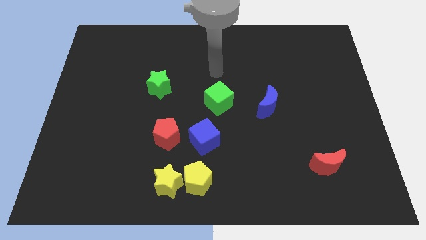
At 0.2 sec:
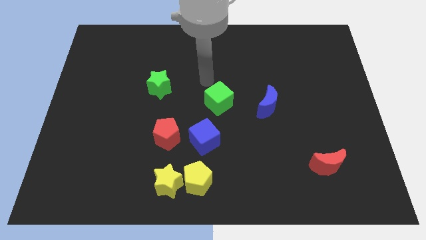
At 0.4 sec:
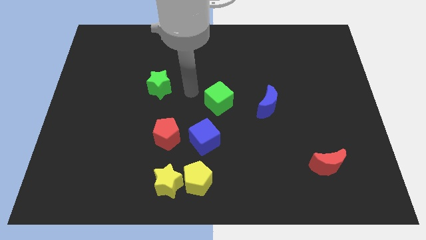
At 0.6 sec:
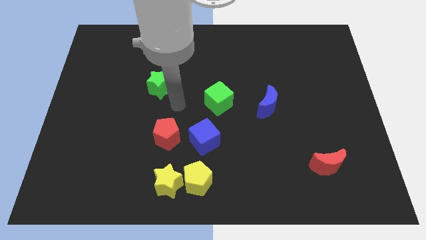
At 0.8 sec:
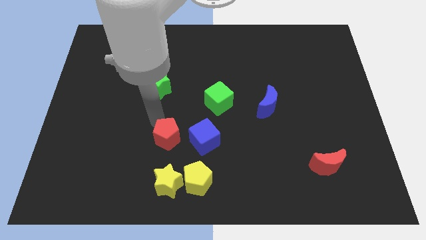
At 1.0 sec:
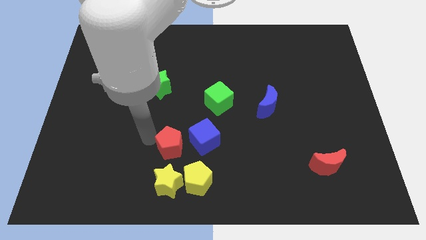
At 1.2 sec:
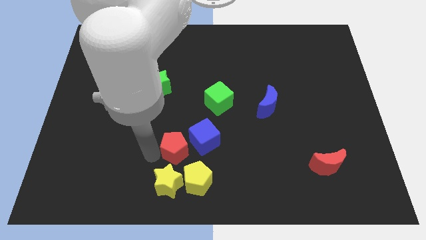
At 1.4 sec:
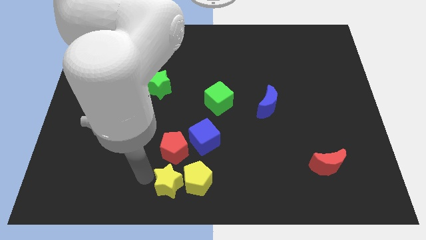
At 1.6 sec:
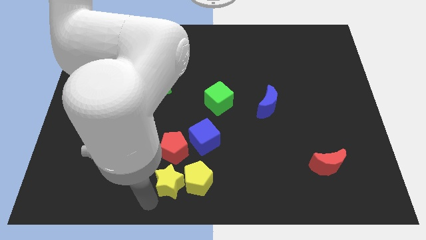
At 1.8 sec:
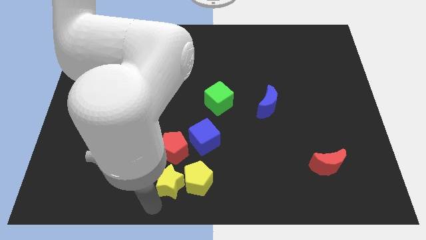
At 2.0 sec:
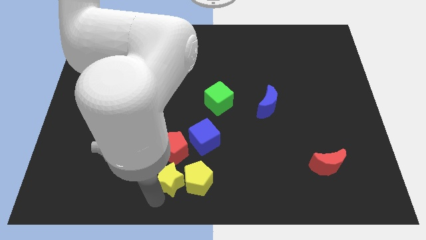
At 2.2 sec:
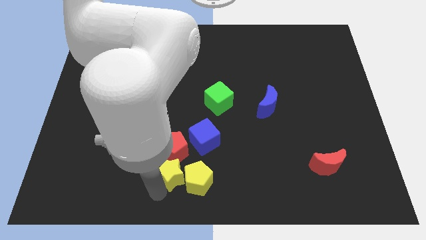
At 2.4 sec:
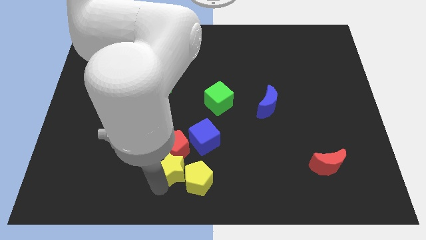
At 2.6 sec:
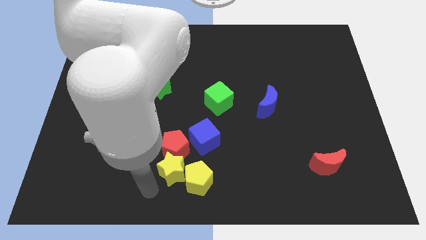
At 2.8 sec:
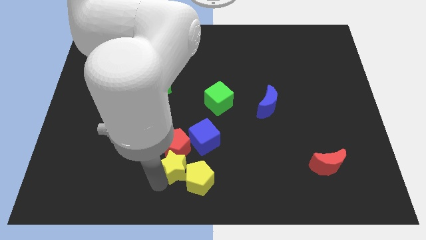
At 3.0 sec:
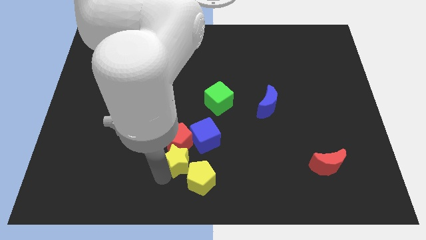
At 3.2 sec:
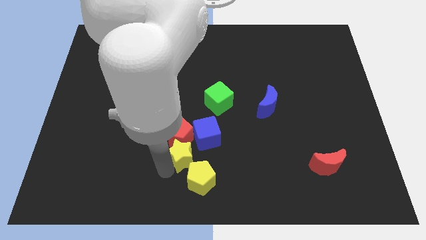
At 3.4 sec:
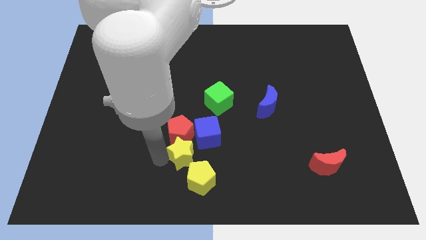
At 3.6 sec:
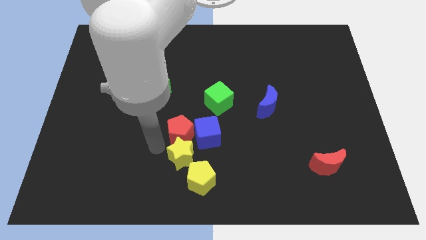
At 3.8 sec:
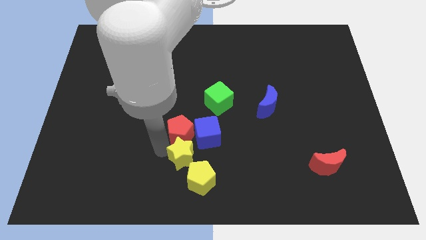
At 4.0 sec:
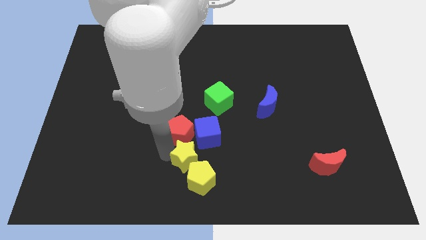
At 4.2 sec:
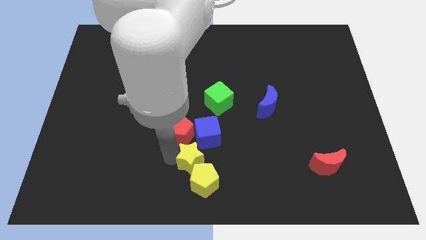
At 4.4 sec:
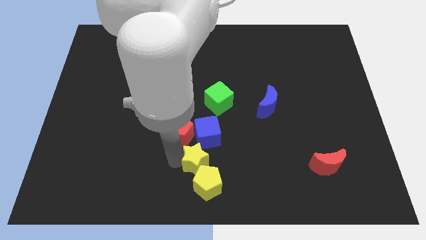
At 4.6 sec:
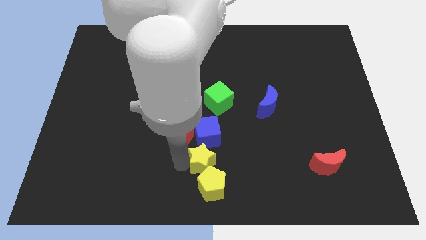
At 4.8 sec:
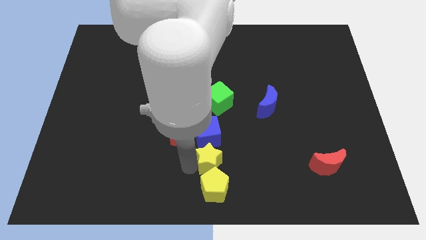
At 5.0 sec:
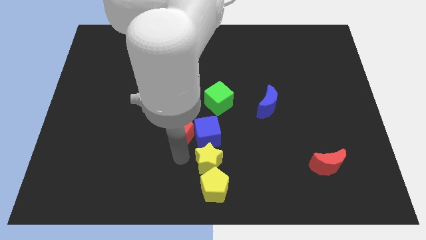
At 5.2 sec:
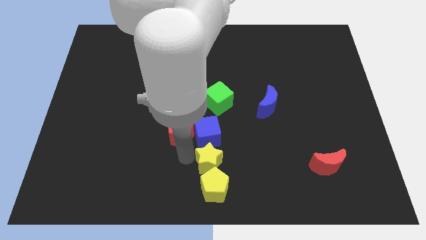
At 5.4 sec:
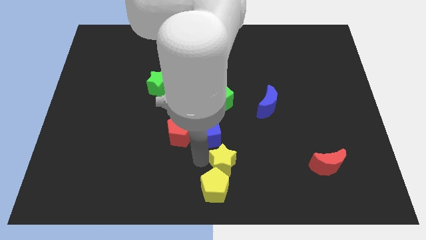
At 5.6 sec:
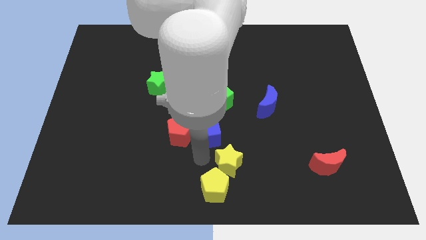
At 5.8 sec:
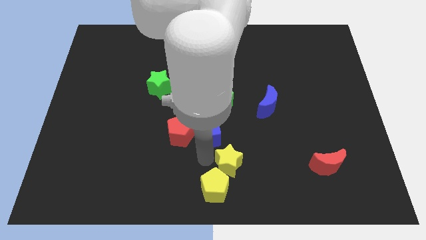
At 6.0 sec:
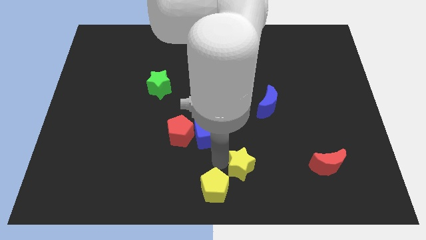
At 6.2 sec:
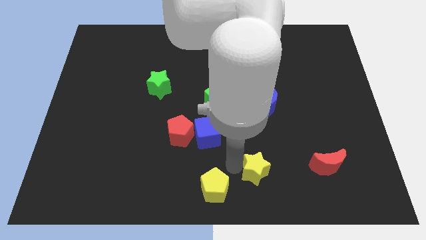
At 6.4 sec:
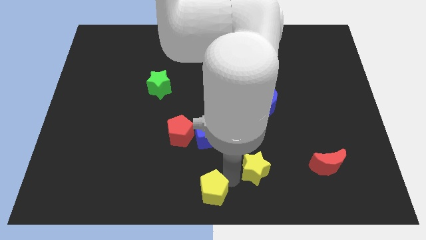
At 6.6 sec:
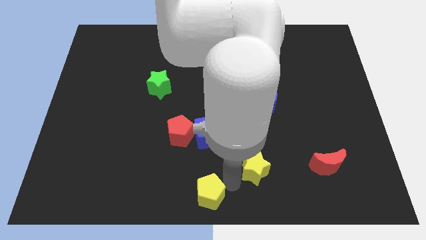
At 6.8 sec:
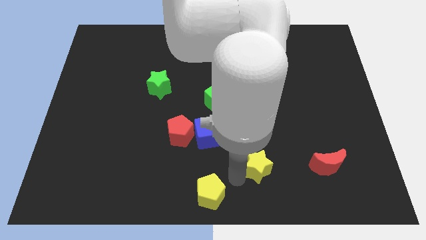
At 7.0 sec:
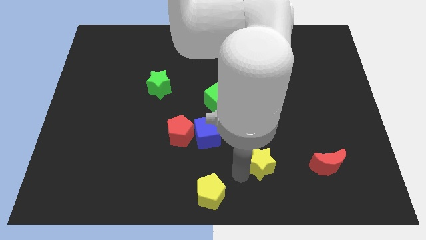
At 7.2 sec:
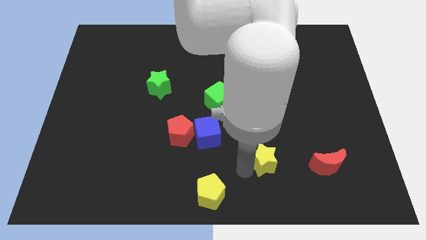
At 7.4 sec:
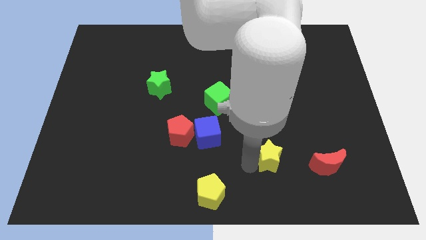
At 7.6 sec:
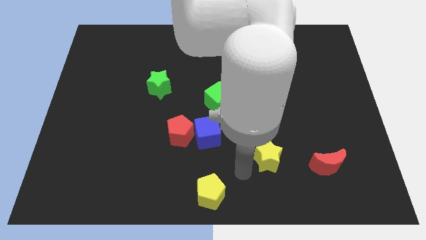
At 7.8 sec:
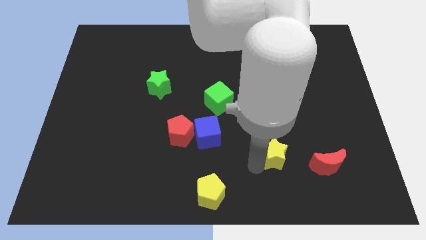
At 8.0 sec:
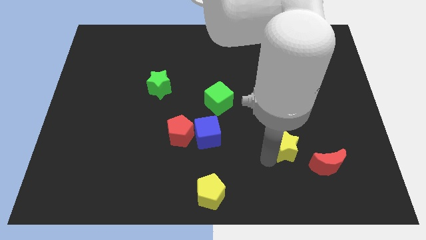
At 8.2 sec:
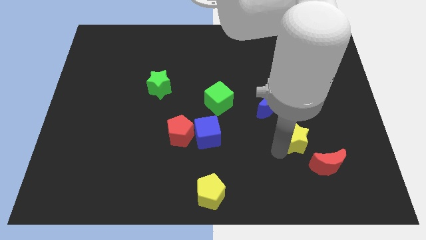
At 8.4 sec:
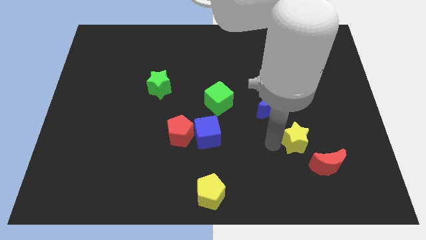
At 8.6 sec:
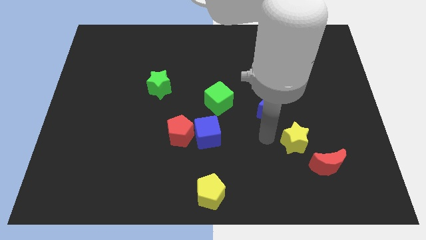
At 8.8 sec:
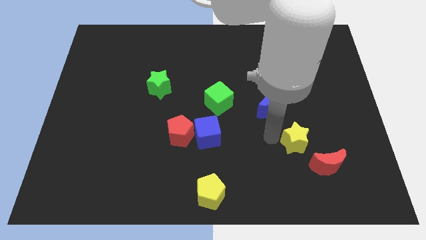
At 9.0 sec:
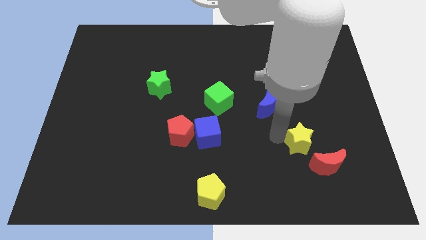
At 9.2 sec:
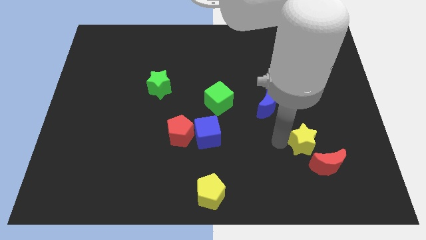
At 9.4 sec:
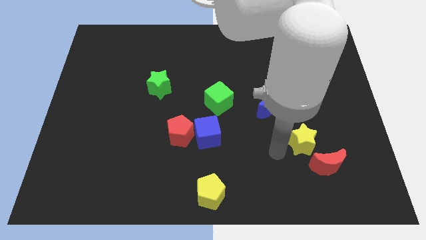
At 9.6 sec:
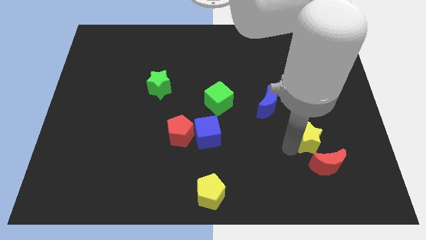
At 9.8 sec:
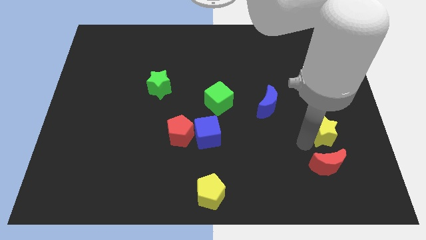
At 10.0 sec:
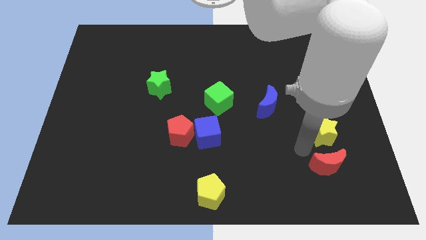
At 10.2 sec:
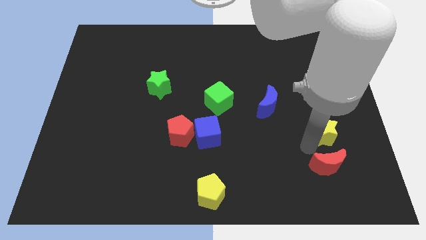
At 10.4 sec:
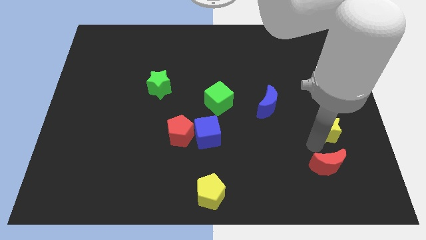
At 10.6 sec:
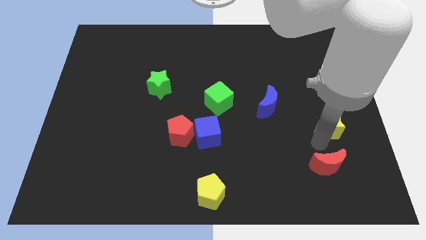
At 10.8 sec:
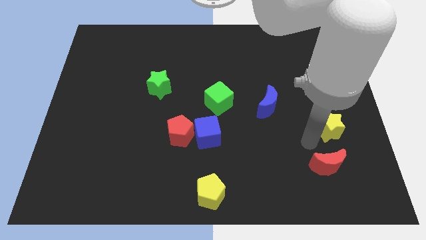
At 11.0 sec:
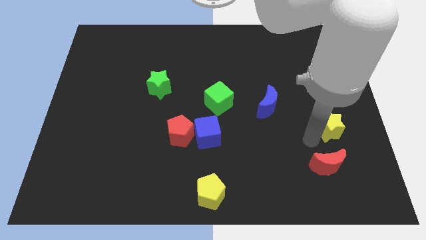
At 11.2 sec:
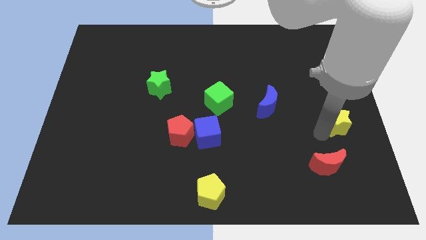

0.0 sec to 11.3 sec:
put the yellow star to the center right

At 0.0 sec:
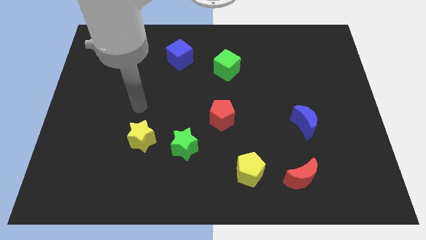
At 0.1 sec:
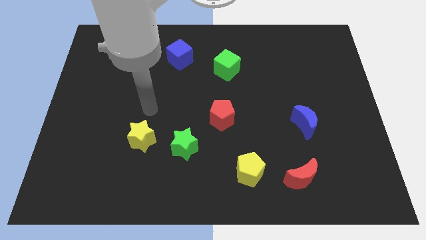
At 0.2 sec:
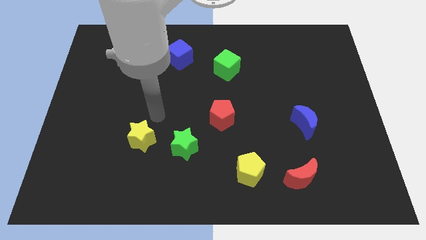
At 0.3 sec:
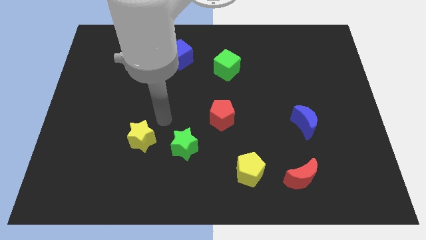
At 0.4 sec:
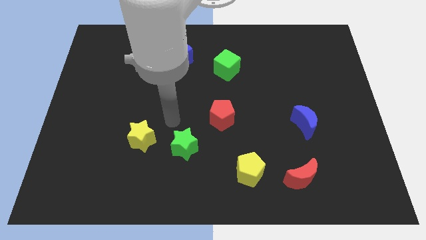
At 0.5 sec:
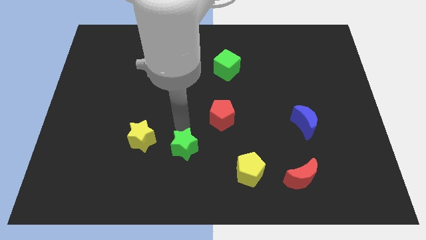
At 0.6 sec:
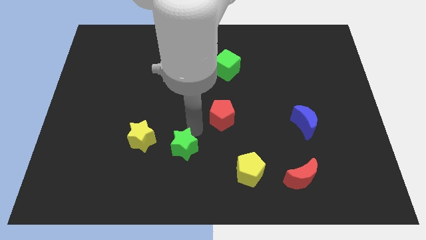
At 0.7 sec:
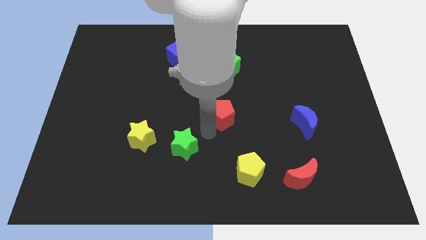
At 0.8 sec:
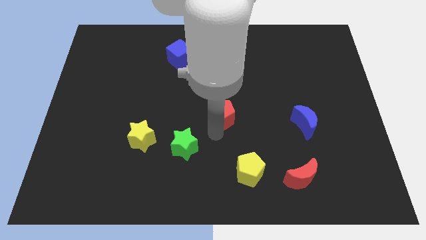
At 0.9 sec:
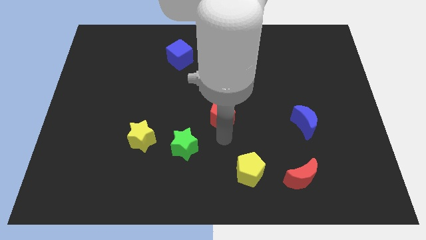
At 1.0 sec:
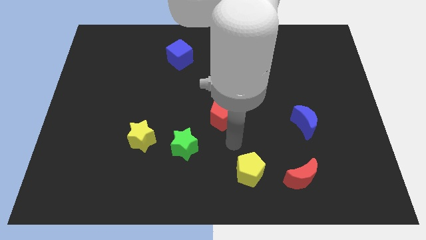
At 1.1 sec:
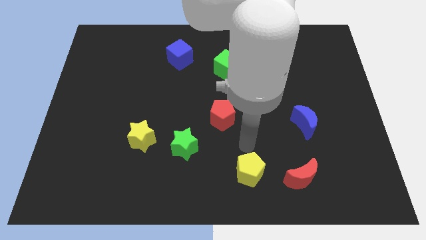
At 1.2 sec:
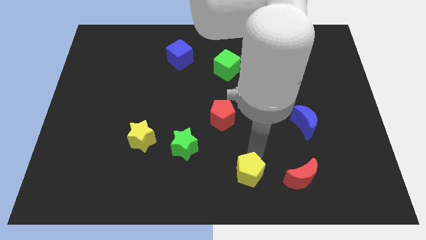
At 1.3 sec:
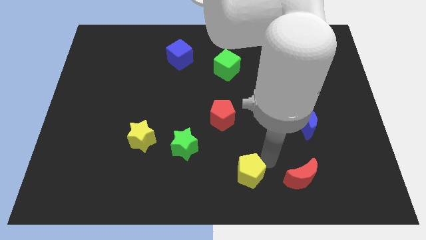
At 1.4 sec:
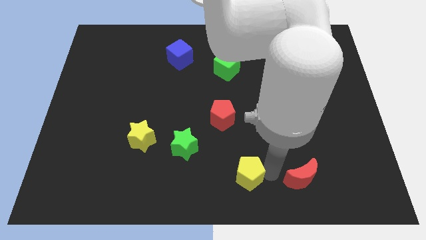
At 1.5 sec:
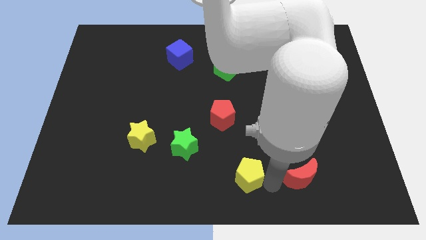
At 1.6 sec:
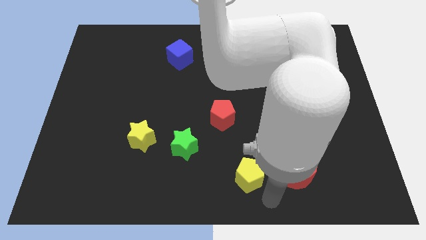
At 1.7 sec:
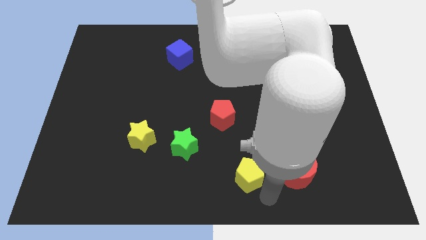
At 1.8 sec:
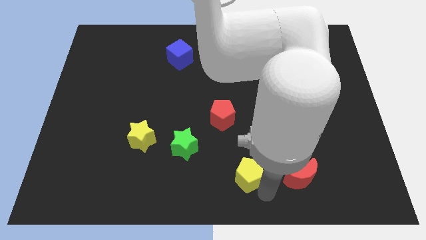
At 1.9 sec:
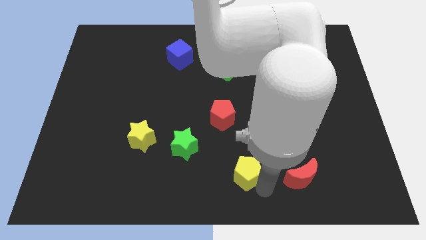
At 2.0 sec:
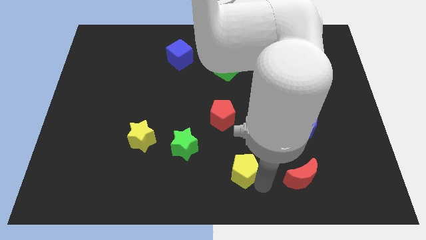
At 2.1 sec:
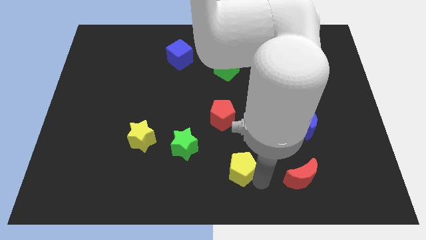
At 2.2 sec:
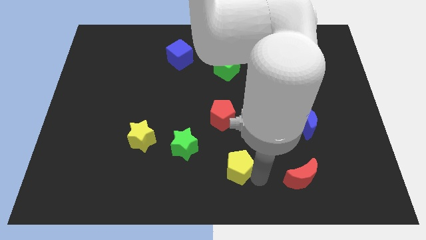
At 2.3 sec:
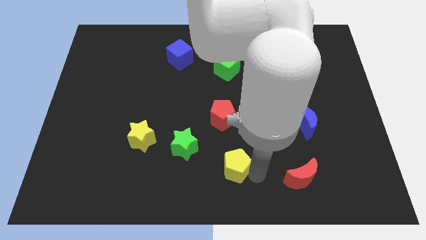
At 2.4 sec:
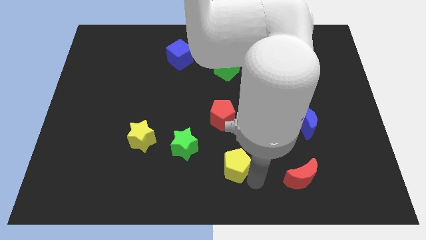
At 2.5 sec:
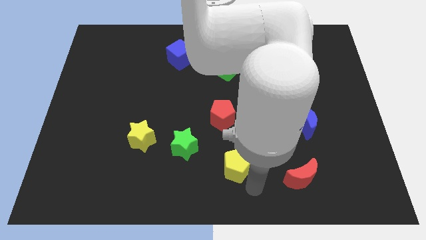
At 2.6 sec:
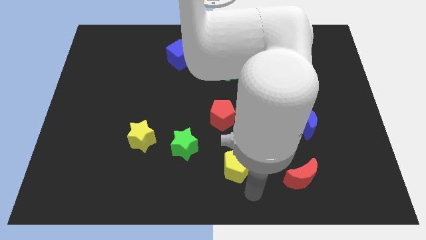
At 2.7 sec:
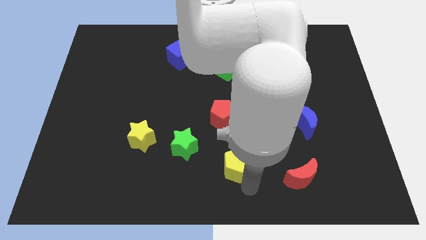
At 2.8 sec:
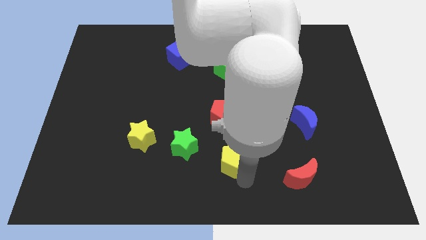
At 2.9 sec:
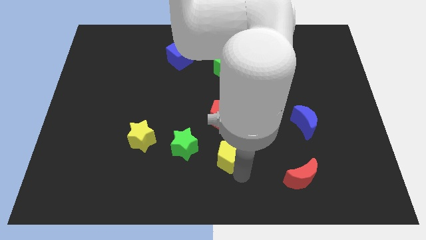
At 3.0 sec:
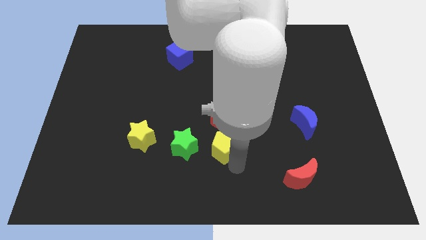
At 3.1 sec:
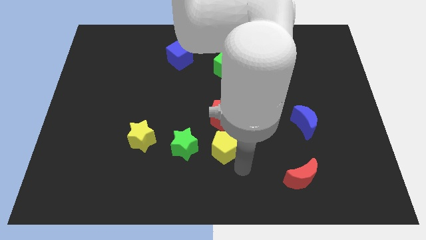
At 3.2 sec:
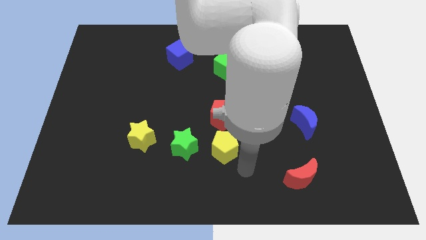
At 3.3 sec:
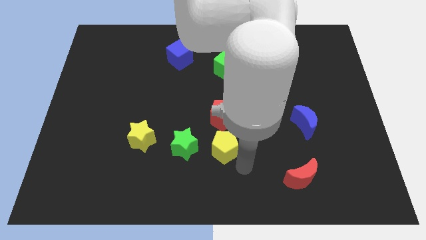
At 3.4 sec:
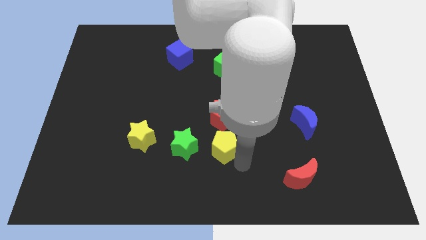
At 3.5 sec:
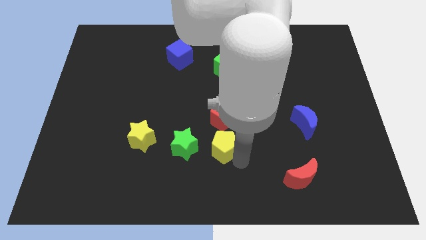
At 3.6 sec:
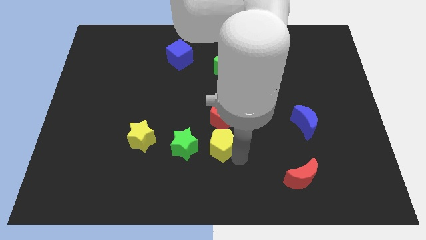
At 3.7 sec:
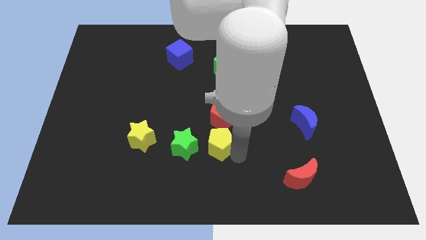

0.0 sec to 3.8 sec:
put the yellow pentagon to the center
